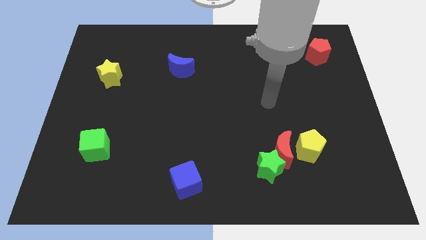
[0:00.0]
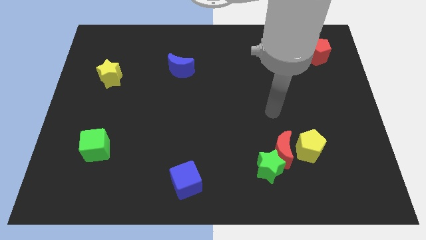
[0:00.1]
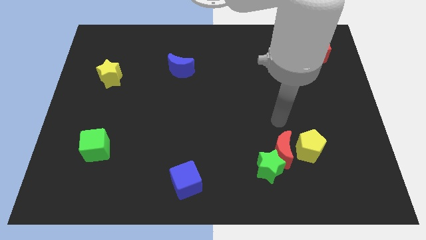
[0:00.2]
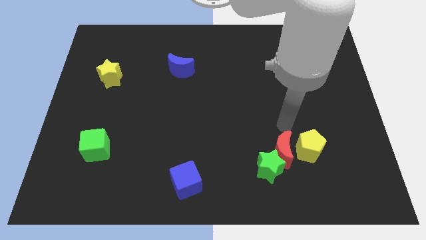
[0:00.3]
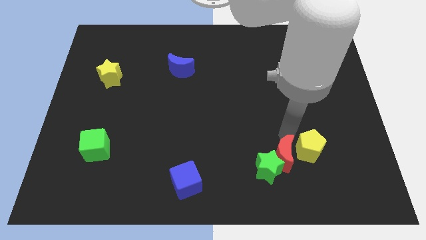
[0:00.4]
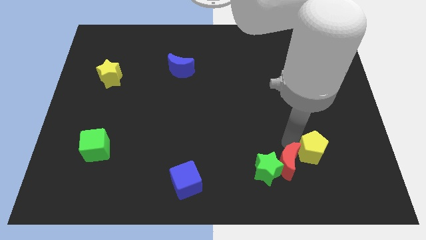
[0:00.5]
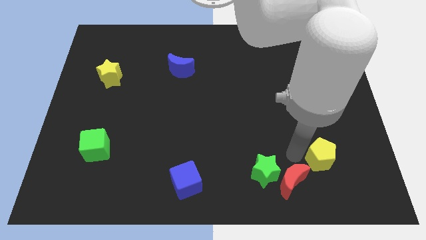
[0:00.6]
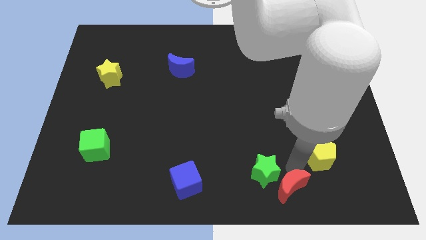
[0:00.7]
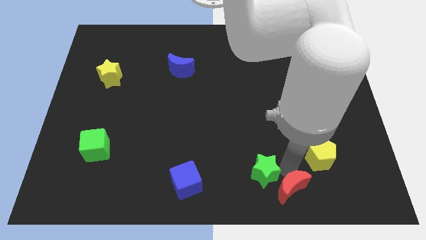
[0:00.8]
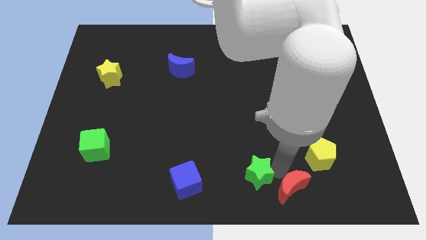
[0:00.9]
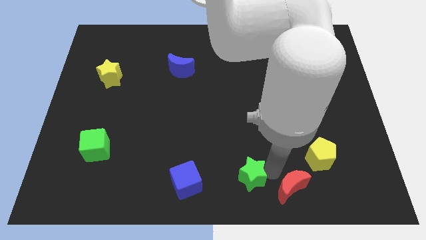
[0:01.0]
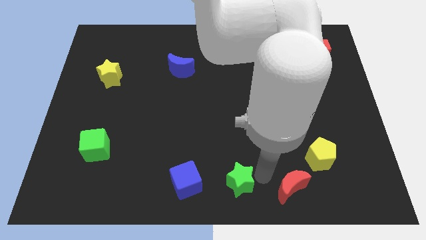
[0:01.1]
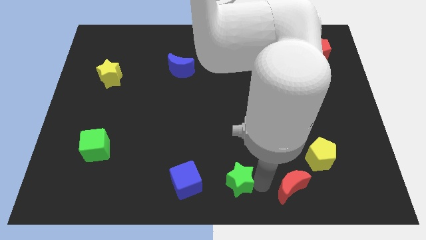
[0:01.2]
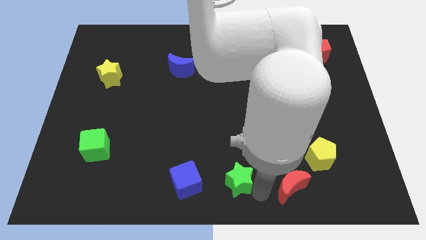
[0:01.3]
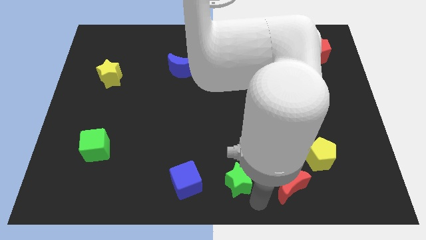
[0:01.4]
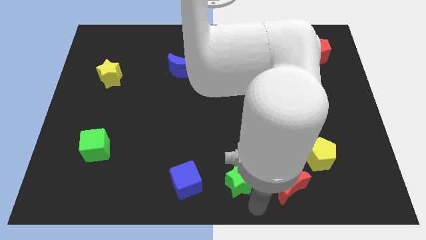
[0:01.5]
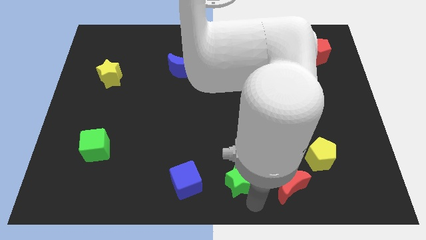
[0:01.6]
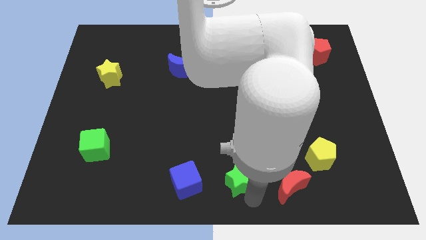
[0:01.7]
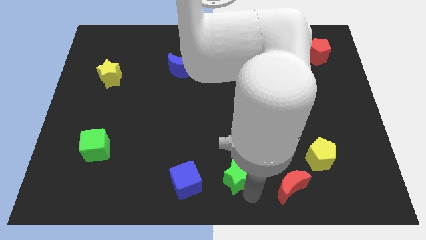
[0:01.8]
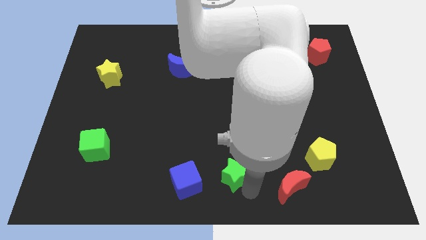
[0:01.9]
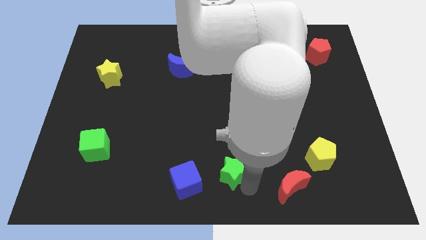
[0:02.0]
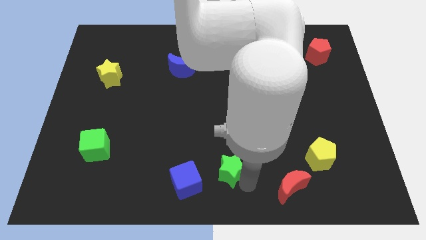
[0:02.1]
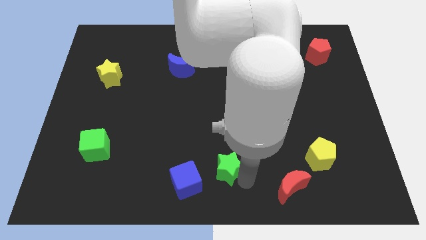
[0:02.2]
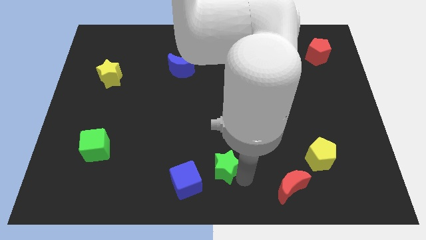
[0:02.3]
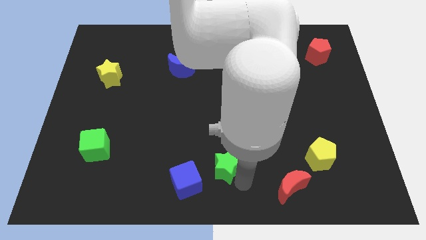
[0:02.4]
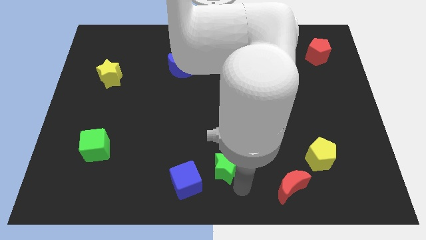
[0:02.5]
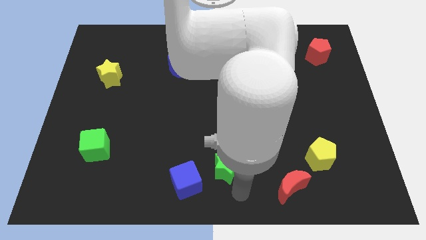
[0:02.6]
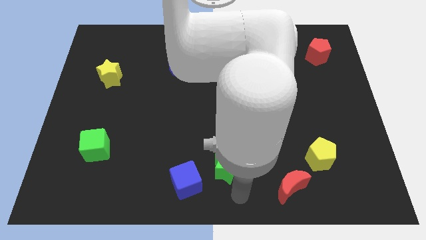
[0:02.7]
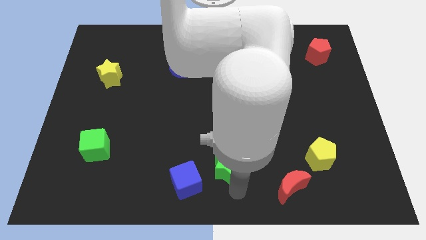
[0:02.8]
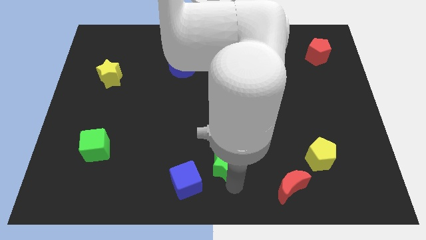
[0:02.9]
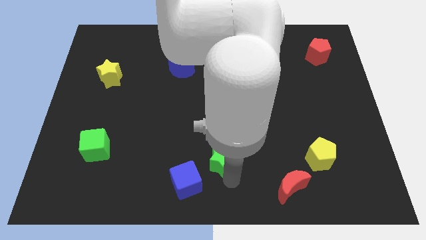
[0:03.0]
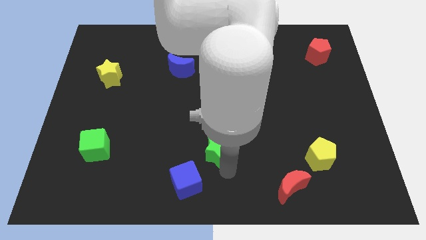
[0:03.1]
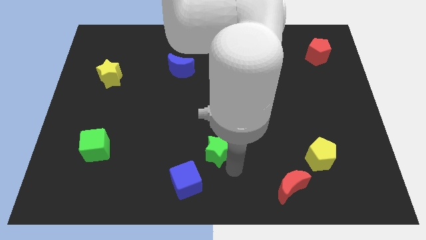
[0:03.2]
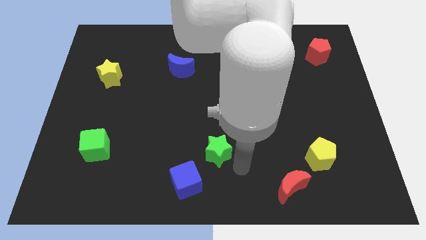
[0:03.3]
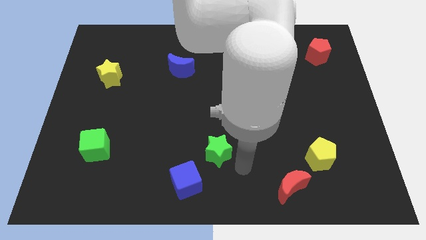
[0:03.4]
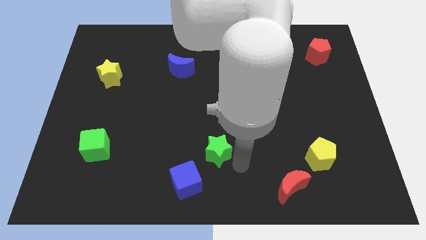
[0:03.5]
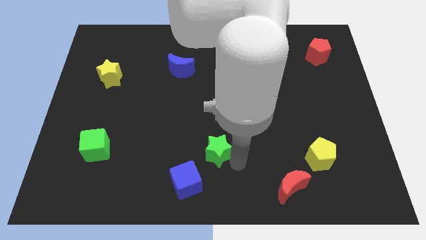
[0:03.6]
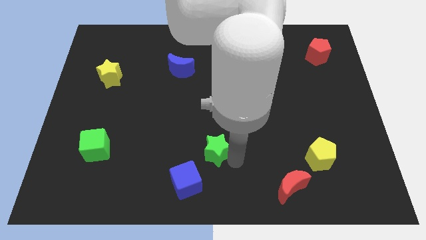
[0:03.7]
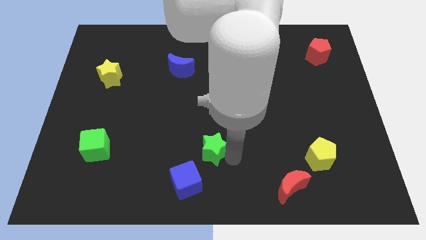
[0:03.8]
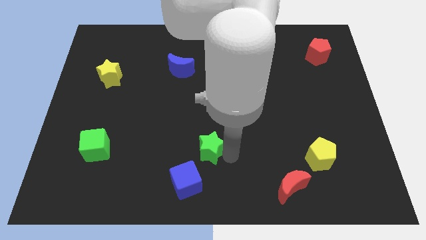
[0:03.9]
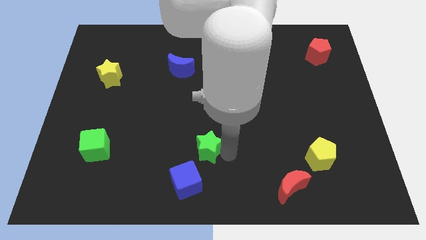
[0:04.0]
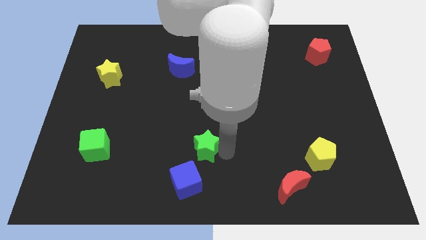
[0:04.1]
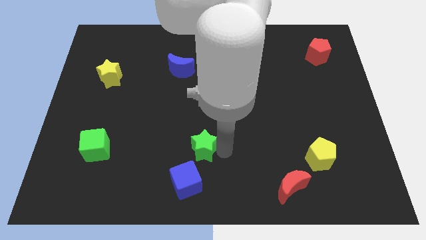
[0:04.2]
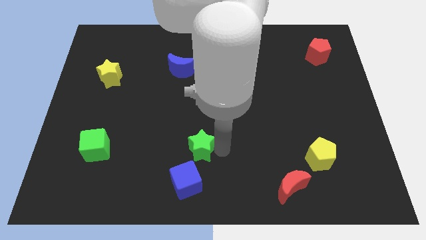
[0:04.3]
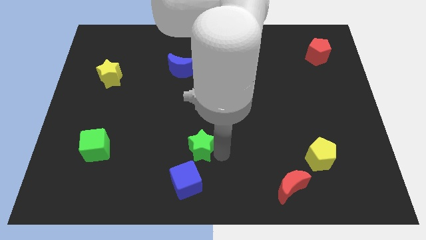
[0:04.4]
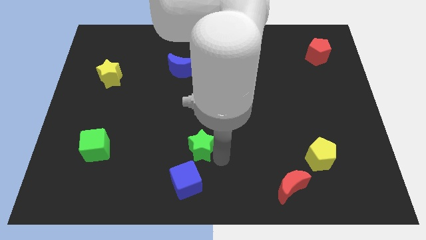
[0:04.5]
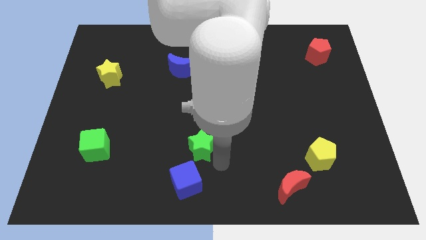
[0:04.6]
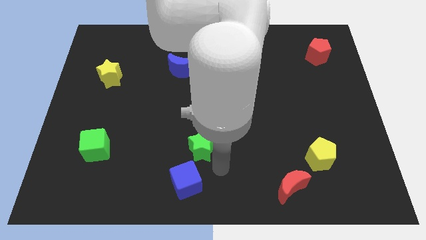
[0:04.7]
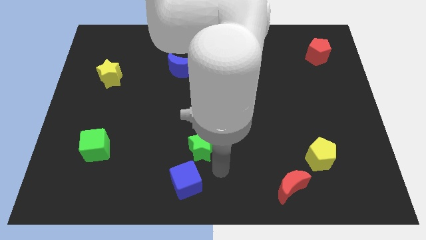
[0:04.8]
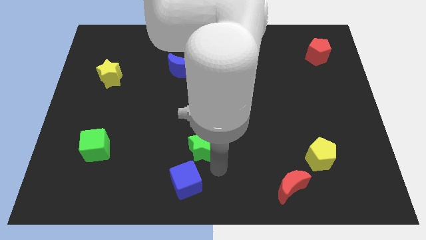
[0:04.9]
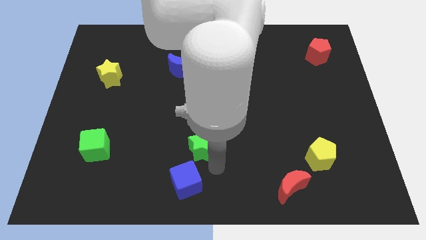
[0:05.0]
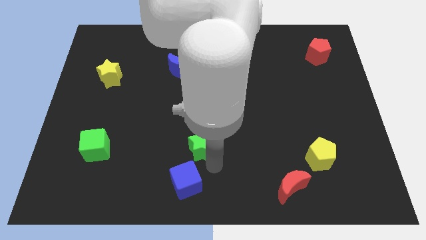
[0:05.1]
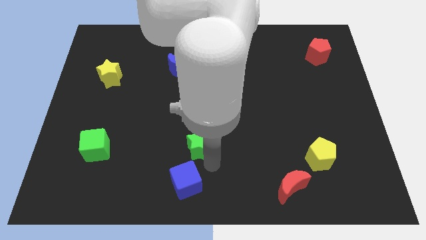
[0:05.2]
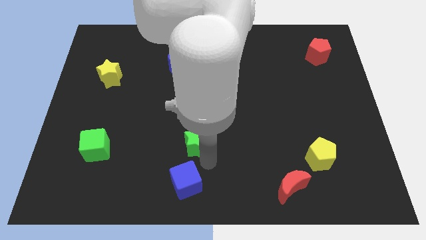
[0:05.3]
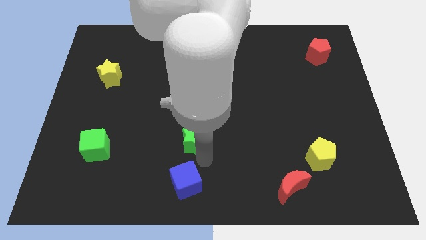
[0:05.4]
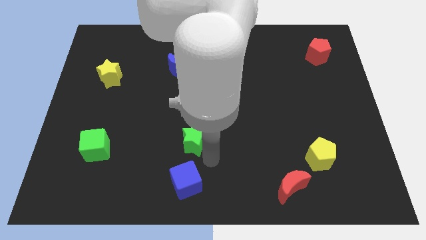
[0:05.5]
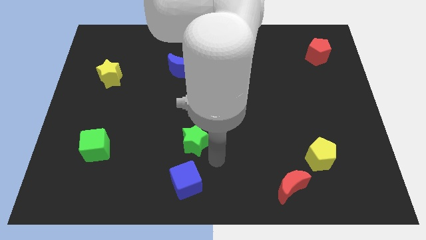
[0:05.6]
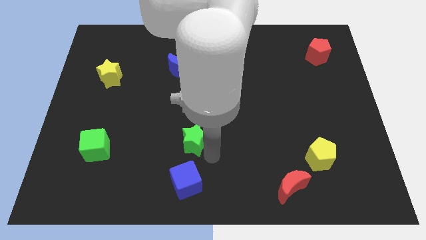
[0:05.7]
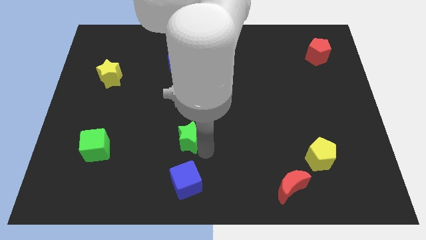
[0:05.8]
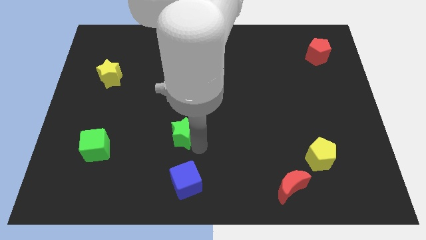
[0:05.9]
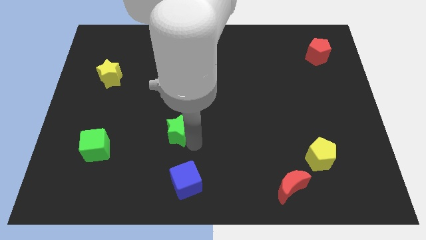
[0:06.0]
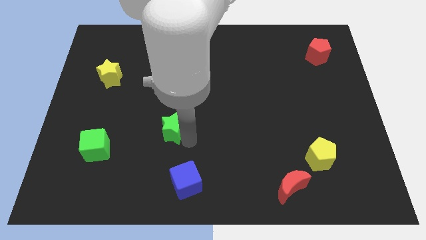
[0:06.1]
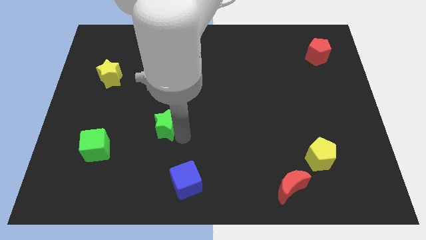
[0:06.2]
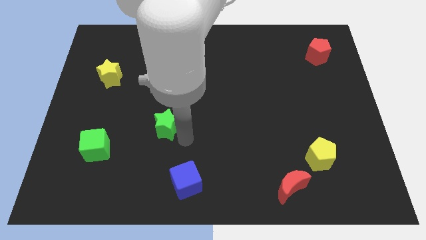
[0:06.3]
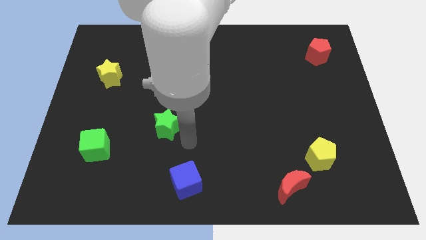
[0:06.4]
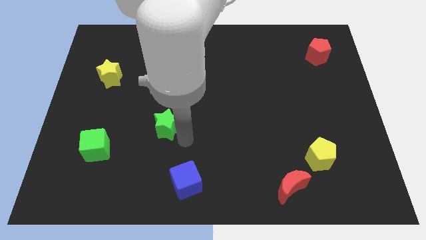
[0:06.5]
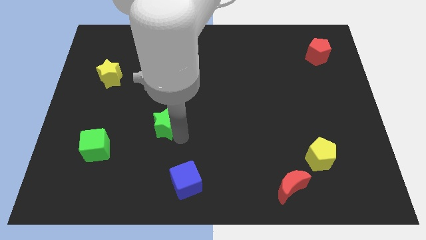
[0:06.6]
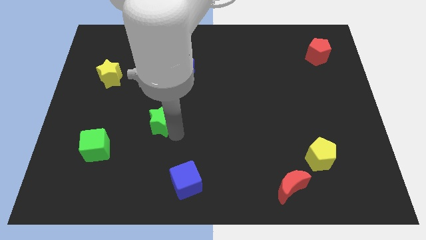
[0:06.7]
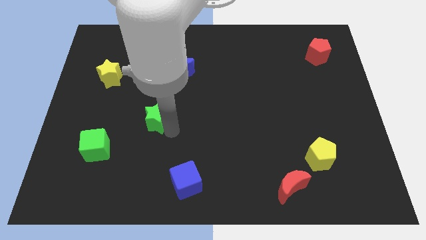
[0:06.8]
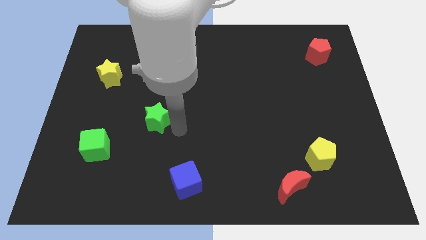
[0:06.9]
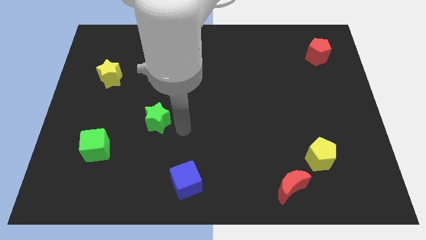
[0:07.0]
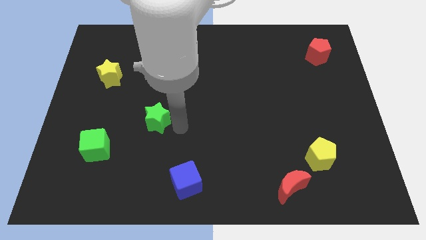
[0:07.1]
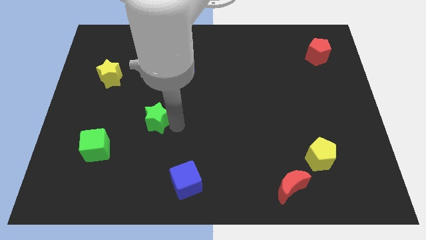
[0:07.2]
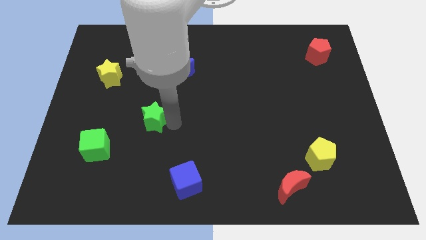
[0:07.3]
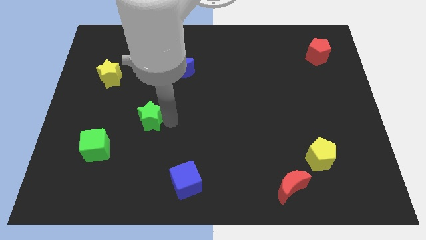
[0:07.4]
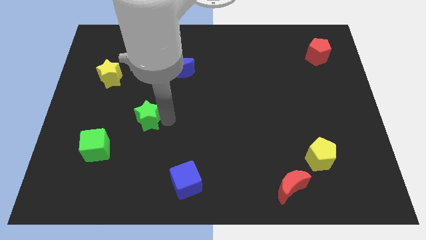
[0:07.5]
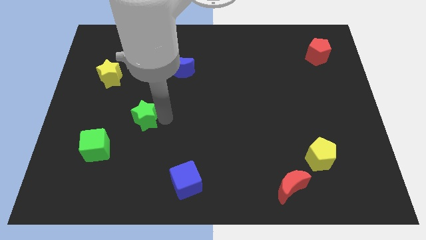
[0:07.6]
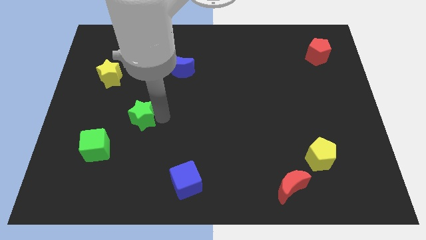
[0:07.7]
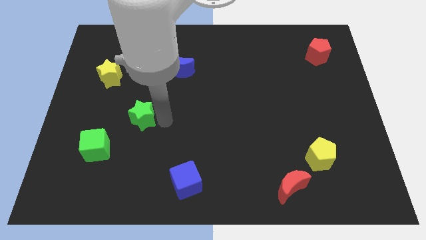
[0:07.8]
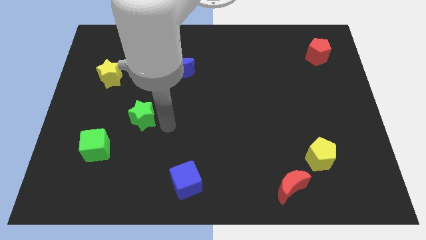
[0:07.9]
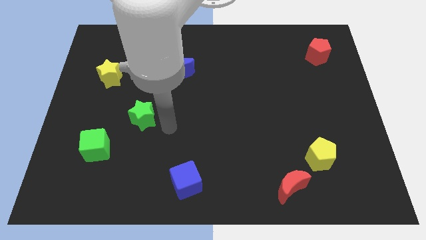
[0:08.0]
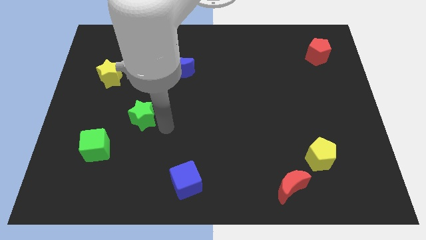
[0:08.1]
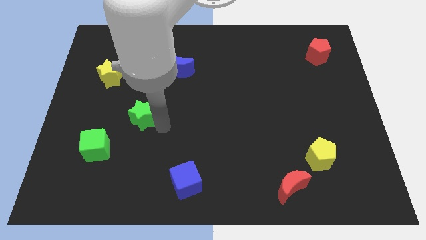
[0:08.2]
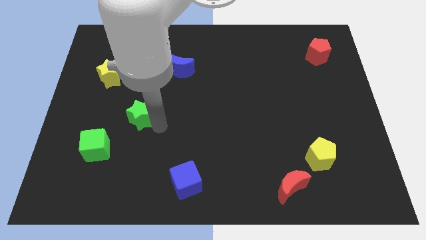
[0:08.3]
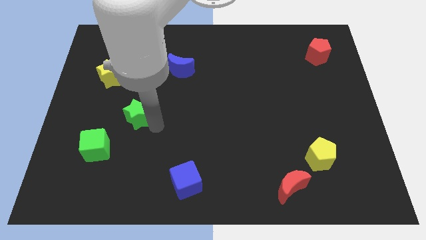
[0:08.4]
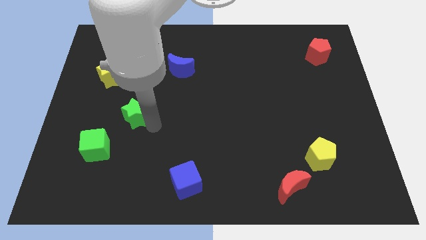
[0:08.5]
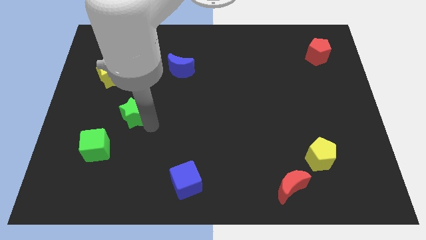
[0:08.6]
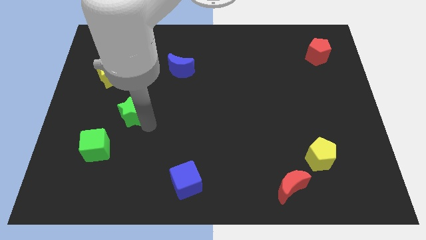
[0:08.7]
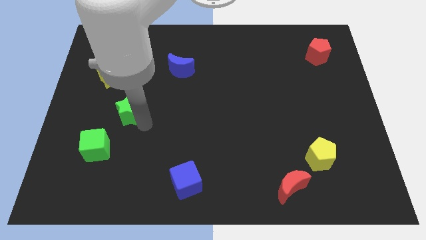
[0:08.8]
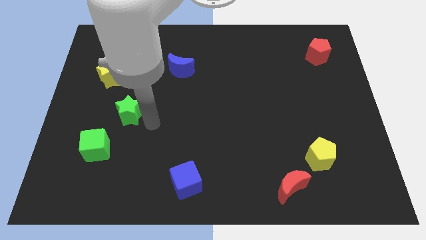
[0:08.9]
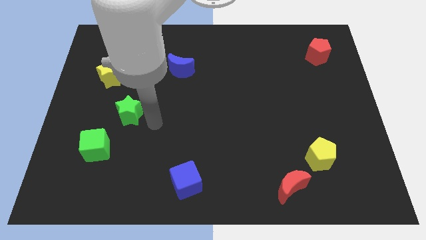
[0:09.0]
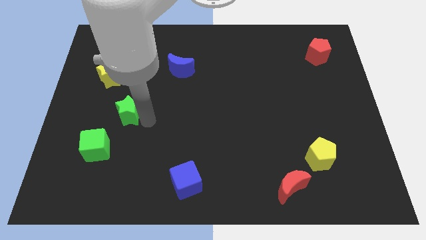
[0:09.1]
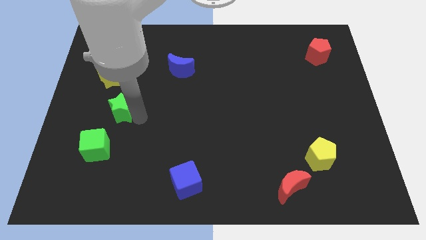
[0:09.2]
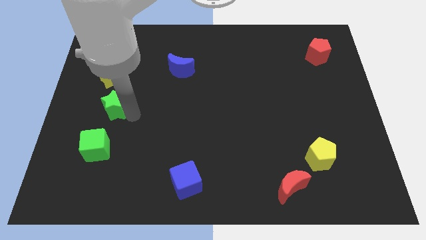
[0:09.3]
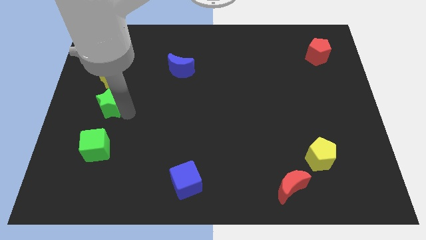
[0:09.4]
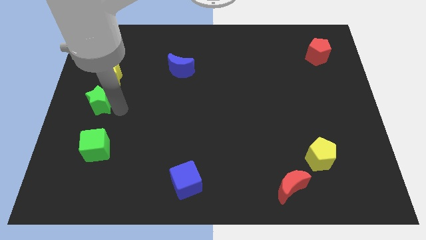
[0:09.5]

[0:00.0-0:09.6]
push the green star to the left side of the board
